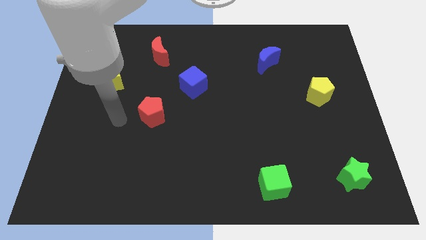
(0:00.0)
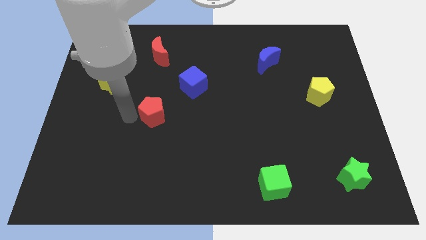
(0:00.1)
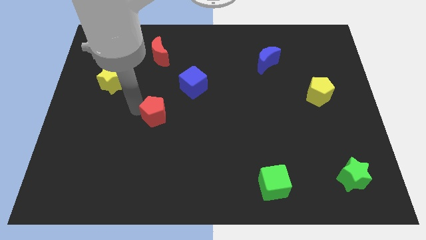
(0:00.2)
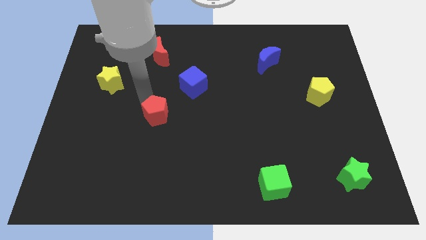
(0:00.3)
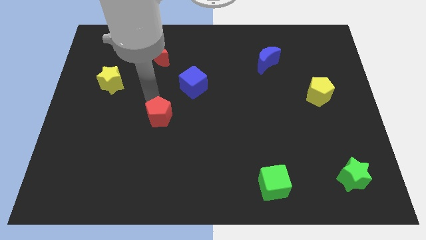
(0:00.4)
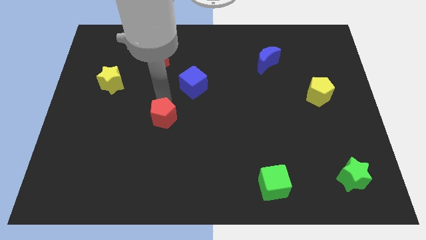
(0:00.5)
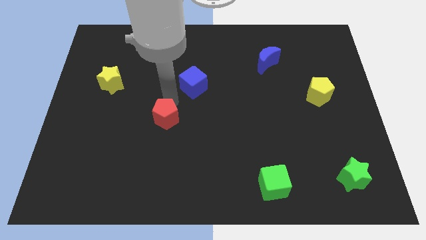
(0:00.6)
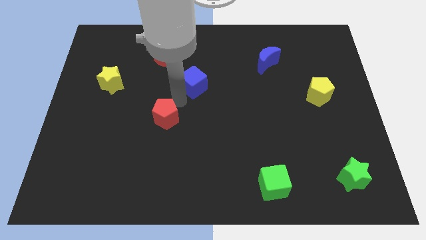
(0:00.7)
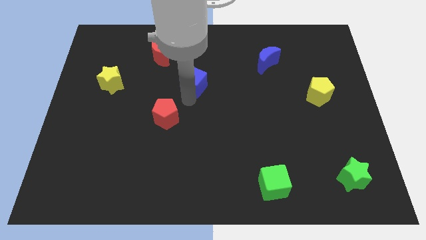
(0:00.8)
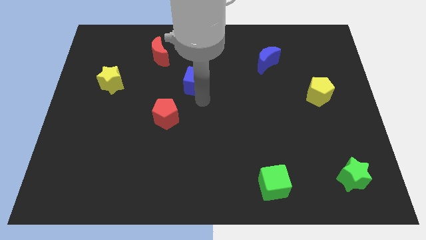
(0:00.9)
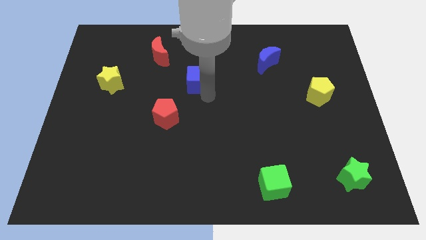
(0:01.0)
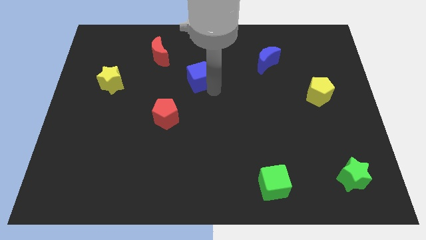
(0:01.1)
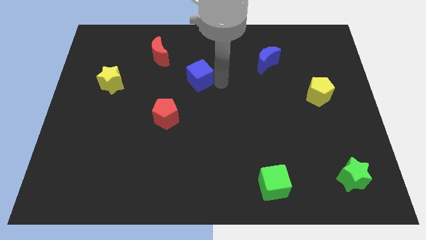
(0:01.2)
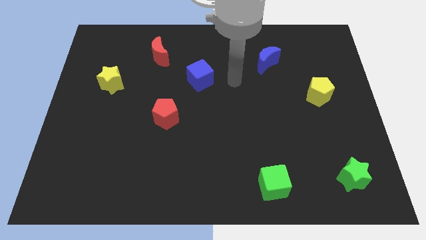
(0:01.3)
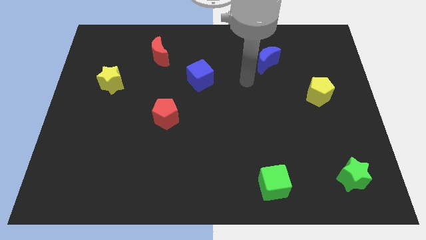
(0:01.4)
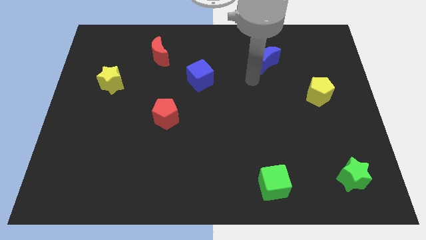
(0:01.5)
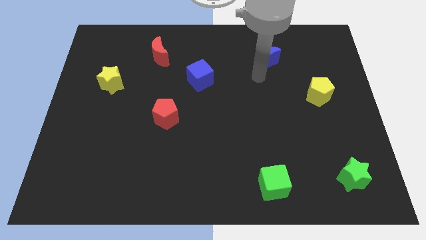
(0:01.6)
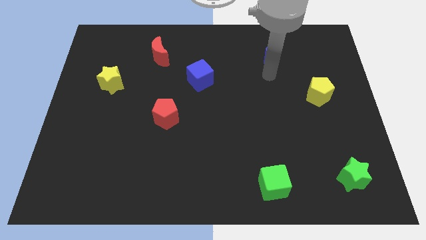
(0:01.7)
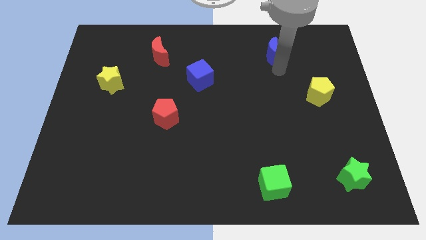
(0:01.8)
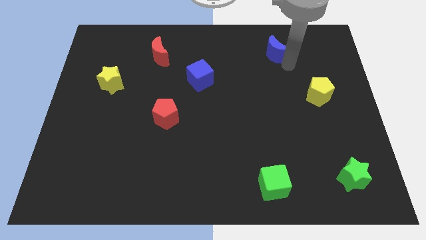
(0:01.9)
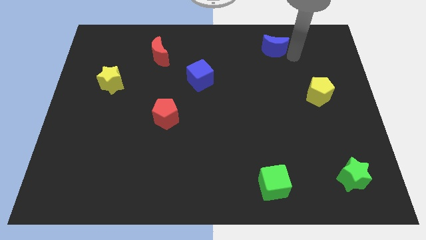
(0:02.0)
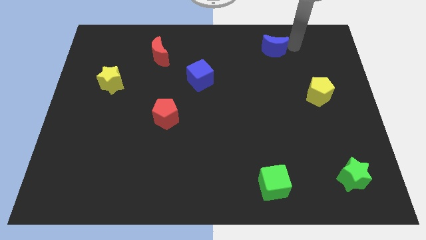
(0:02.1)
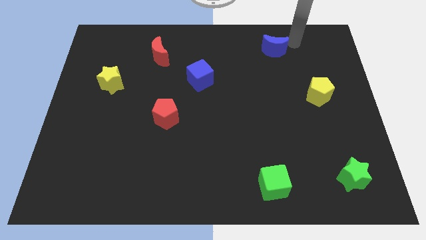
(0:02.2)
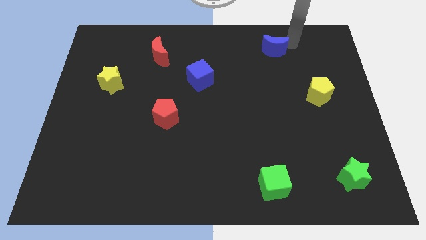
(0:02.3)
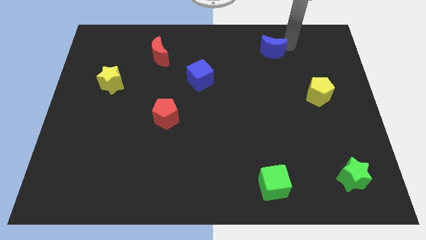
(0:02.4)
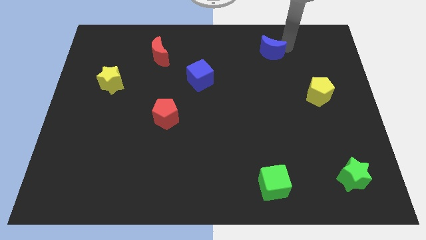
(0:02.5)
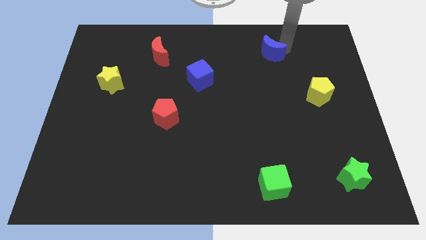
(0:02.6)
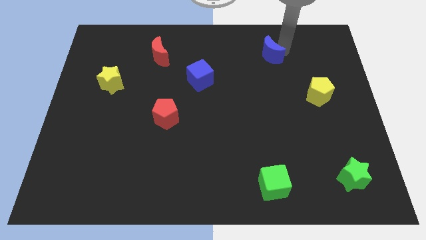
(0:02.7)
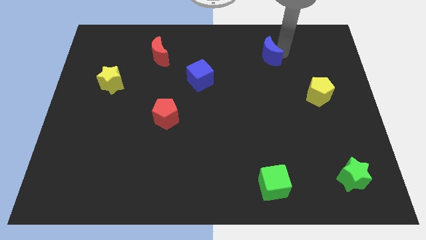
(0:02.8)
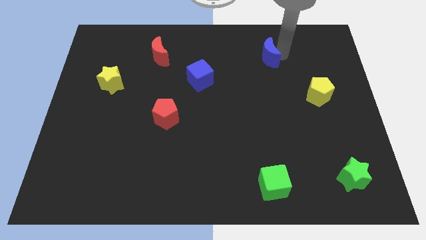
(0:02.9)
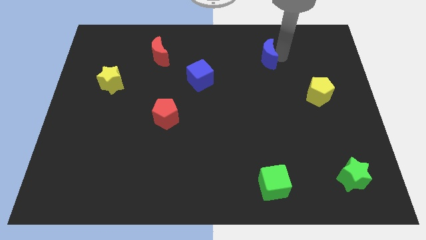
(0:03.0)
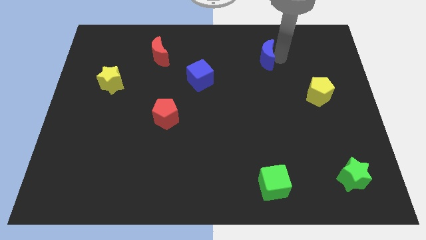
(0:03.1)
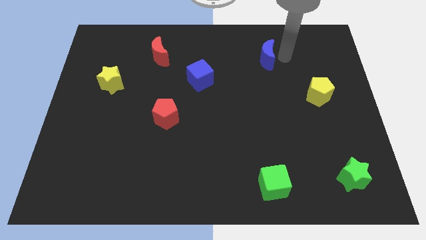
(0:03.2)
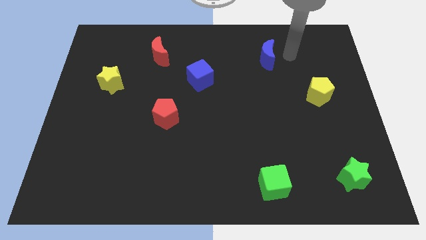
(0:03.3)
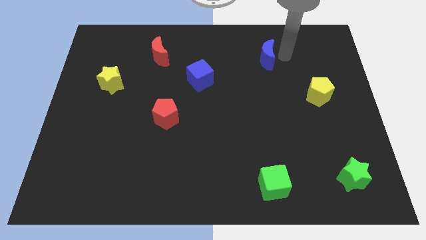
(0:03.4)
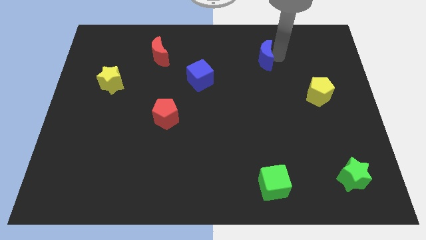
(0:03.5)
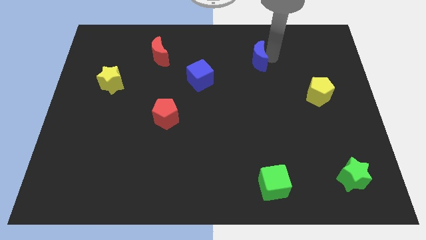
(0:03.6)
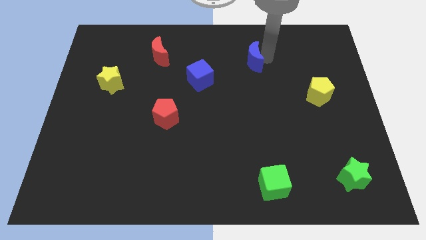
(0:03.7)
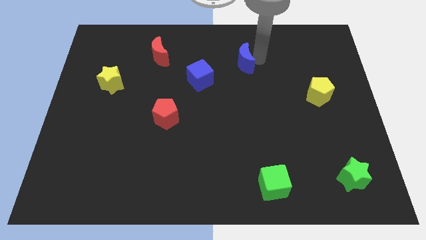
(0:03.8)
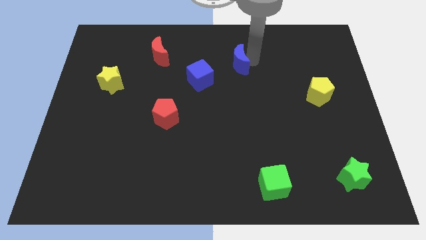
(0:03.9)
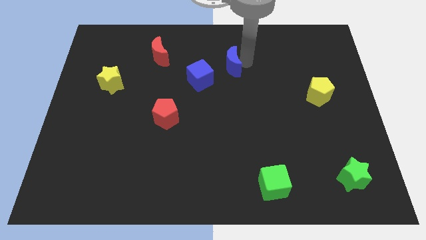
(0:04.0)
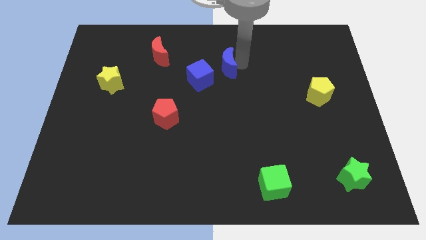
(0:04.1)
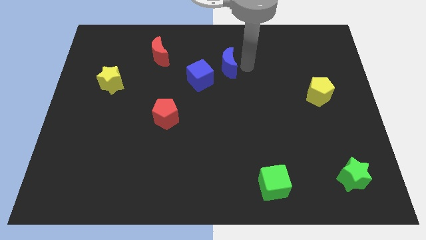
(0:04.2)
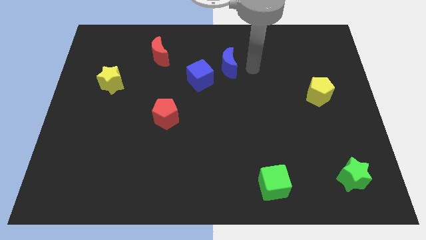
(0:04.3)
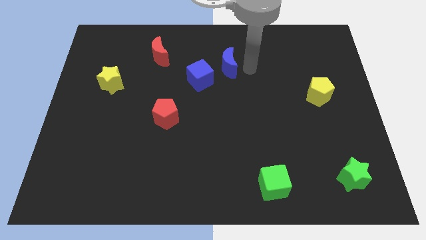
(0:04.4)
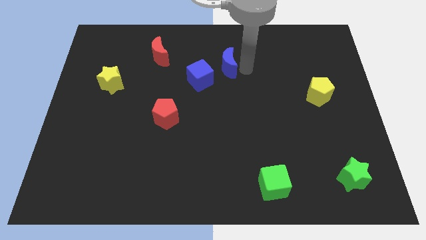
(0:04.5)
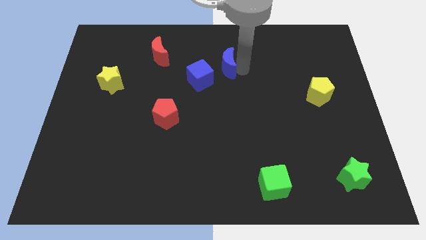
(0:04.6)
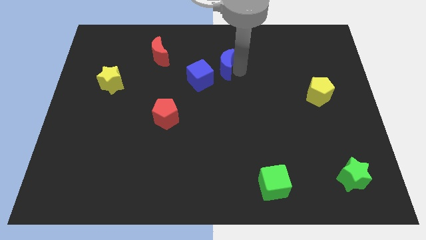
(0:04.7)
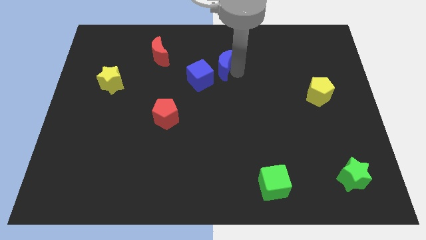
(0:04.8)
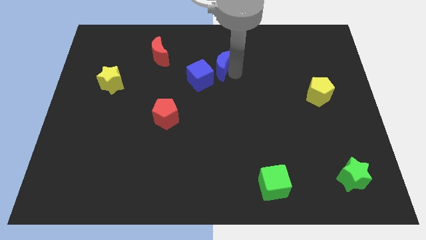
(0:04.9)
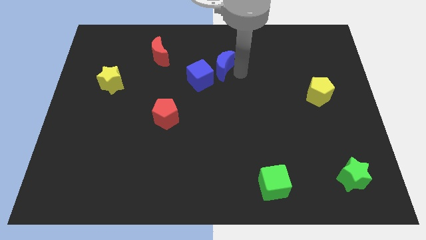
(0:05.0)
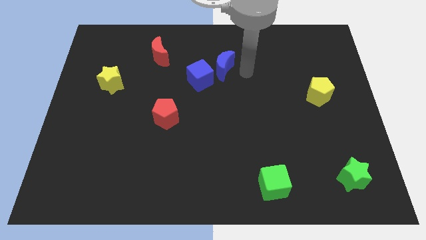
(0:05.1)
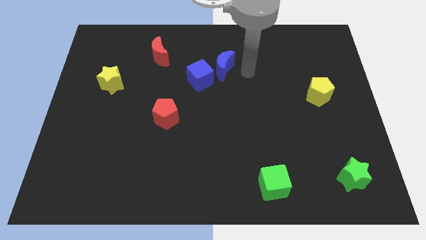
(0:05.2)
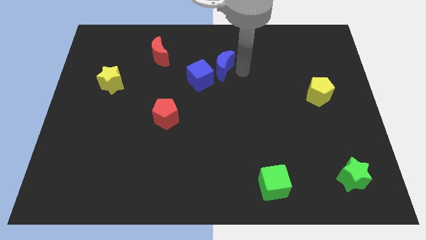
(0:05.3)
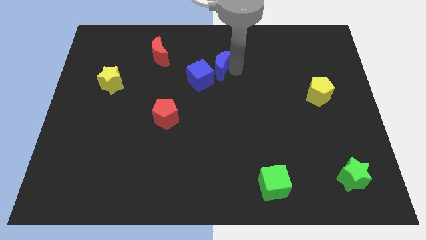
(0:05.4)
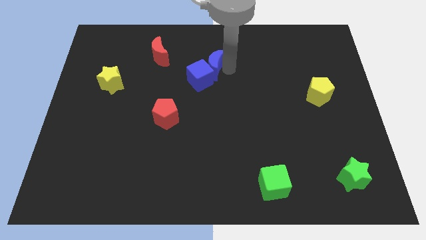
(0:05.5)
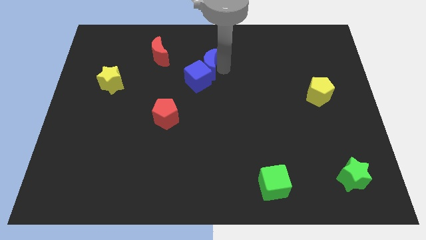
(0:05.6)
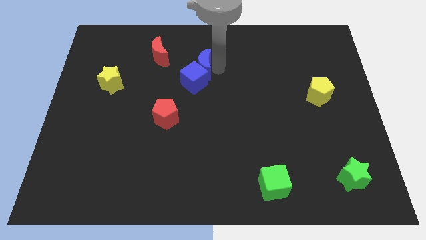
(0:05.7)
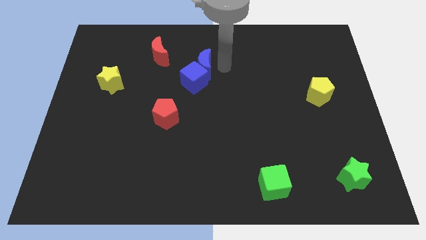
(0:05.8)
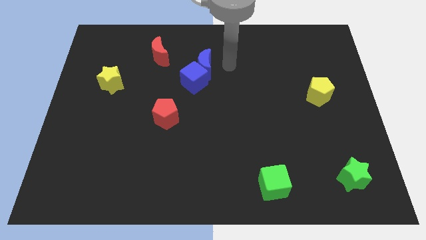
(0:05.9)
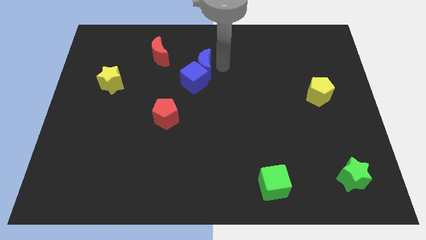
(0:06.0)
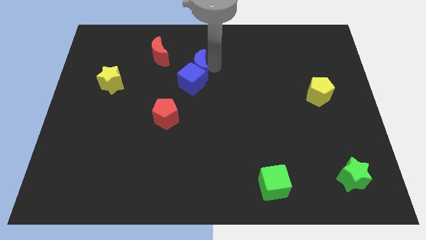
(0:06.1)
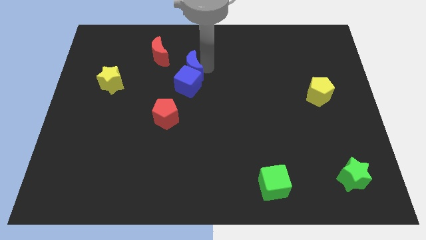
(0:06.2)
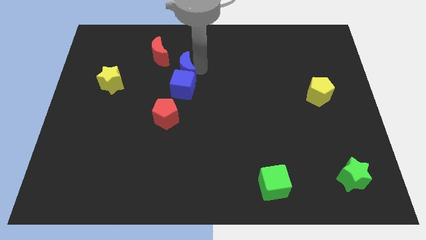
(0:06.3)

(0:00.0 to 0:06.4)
move the blue moon to the left

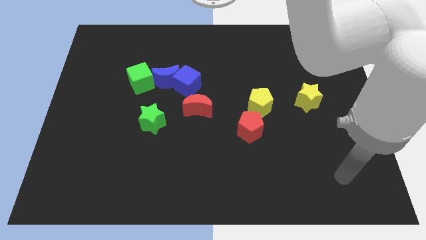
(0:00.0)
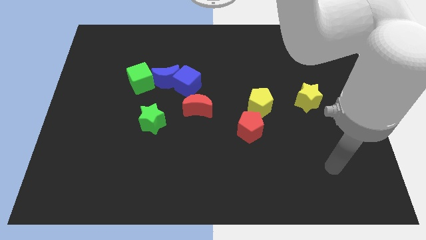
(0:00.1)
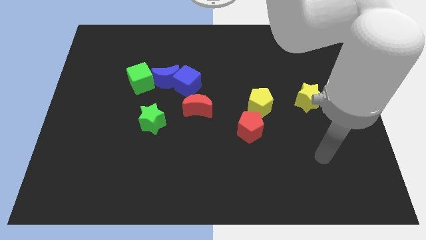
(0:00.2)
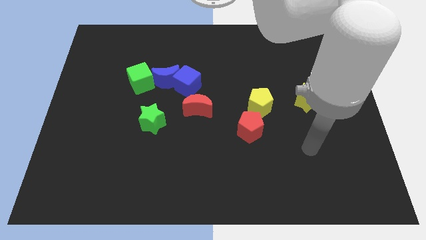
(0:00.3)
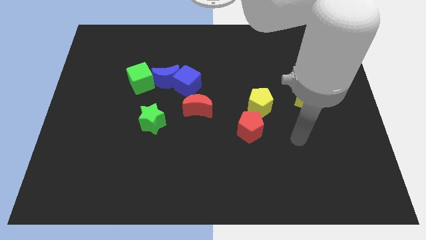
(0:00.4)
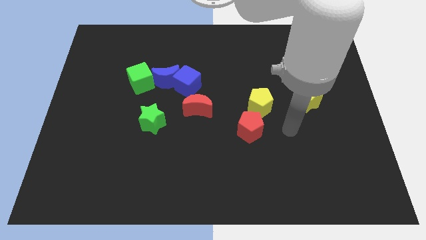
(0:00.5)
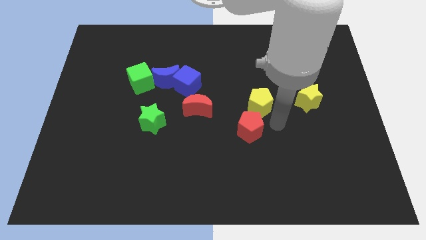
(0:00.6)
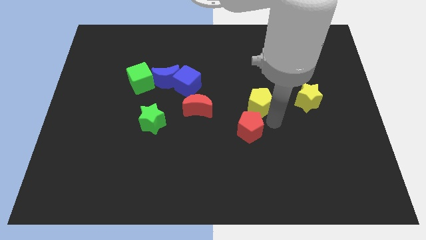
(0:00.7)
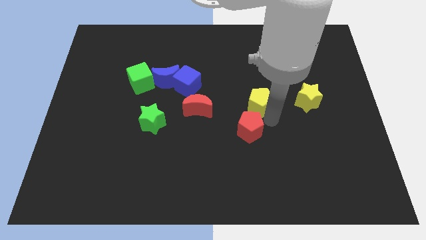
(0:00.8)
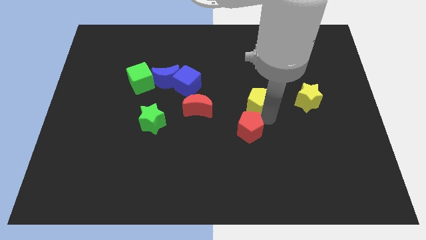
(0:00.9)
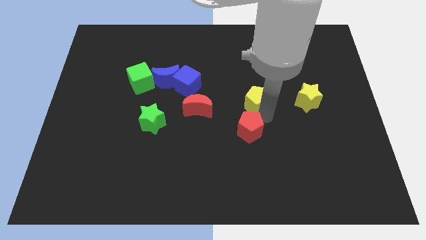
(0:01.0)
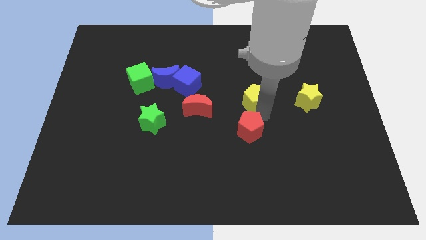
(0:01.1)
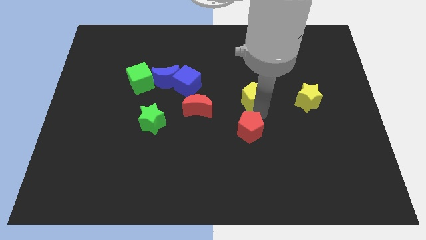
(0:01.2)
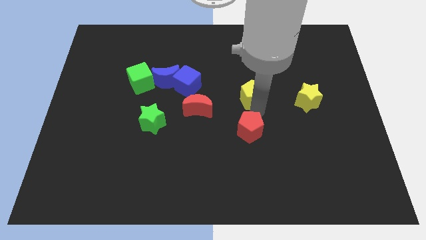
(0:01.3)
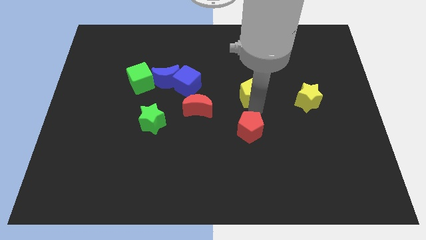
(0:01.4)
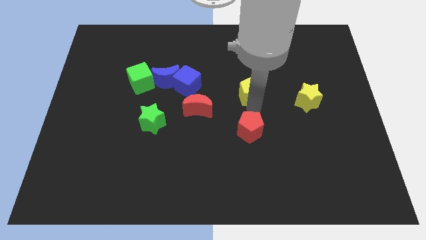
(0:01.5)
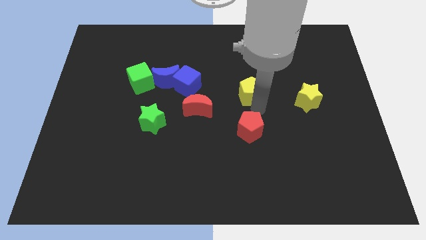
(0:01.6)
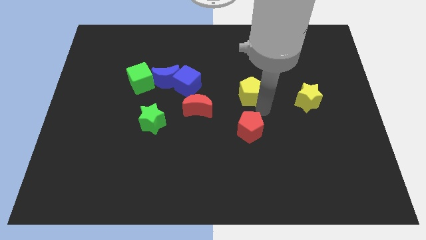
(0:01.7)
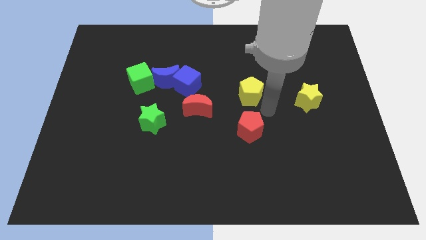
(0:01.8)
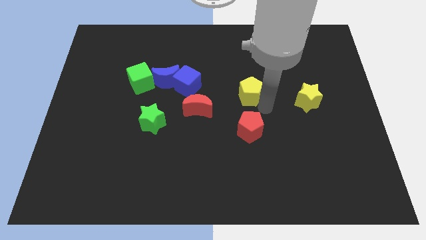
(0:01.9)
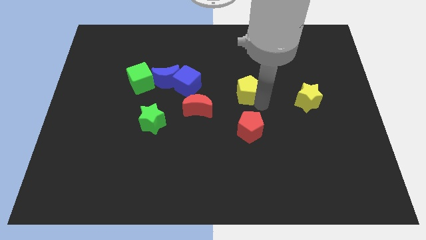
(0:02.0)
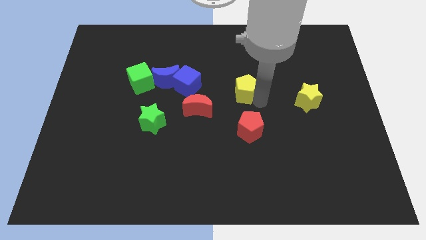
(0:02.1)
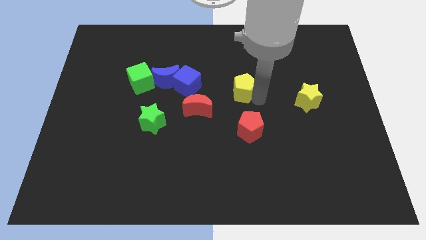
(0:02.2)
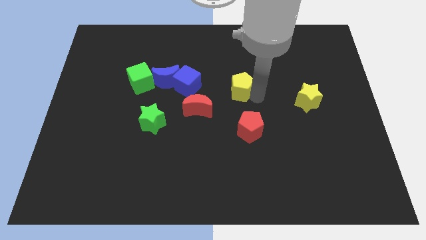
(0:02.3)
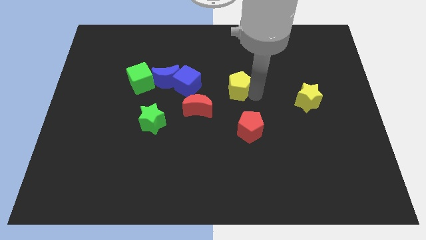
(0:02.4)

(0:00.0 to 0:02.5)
slide the yellow pentagon diagonally up and left slightly
